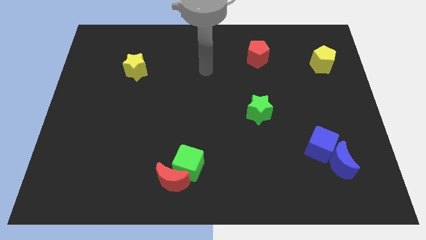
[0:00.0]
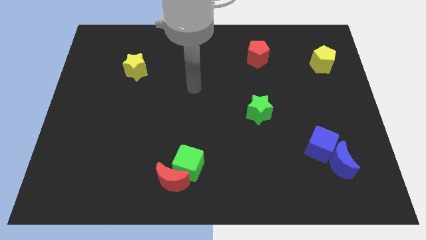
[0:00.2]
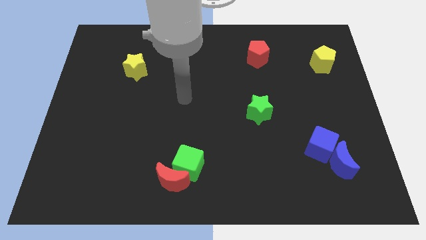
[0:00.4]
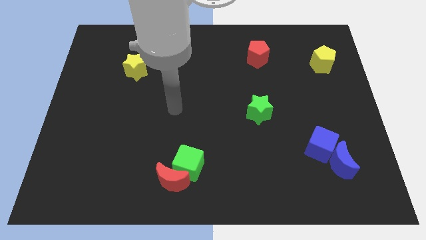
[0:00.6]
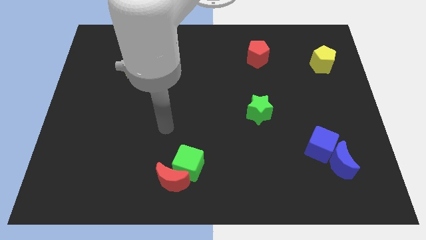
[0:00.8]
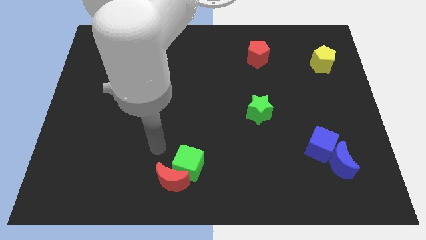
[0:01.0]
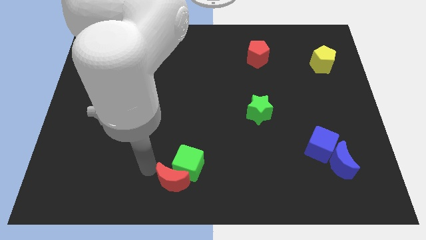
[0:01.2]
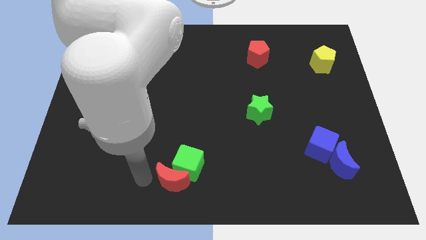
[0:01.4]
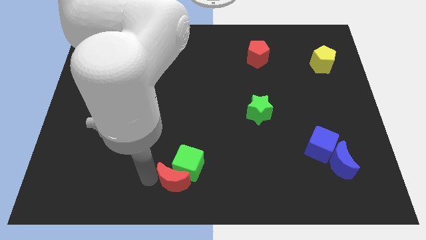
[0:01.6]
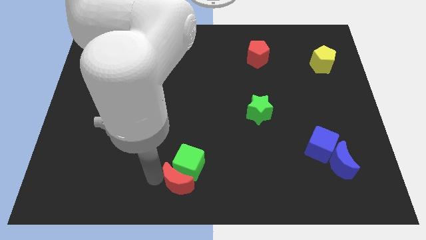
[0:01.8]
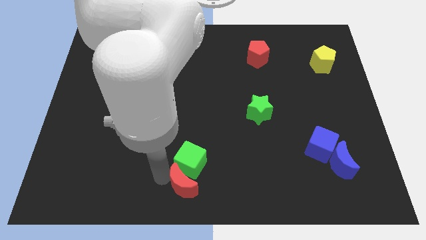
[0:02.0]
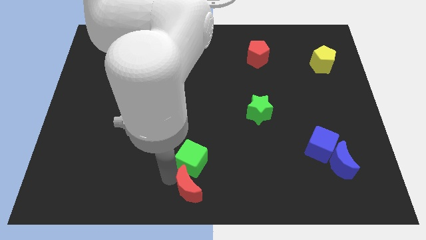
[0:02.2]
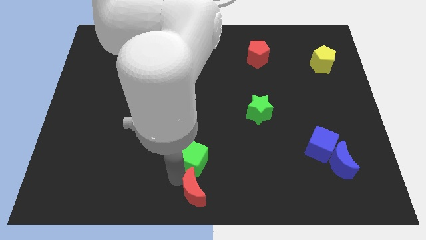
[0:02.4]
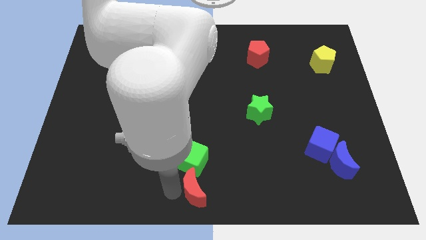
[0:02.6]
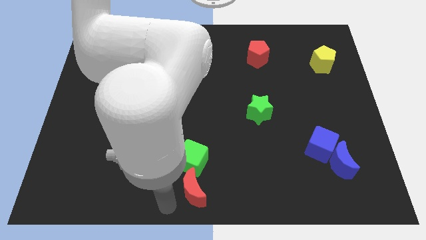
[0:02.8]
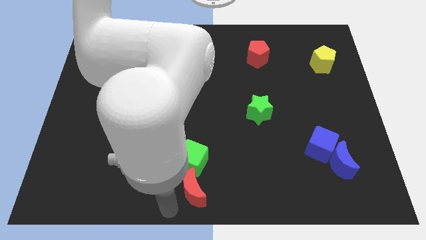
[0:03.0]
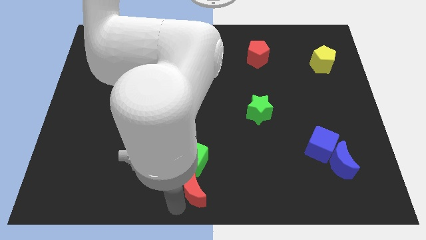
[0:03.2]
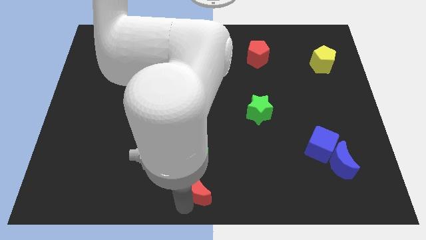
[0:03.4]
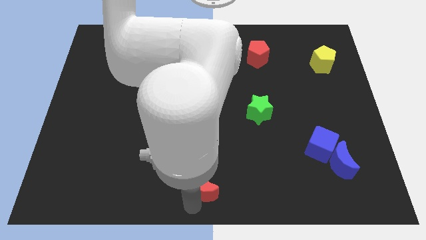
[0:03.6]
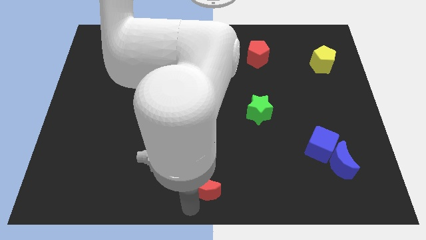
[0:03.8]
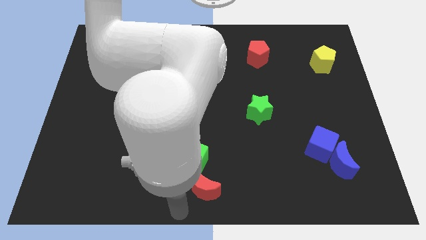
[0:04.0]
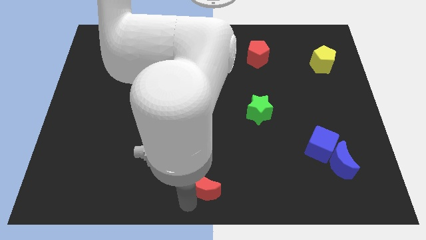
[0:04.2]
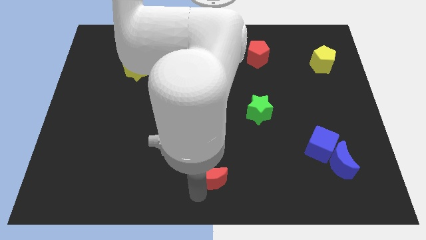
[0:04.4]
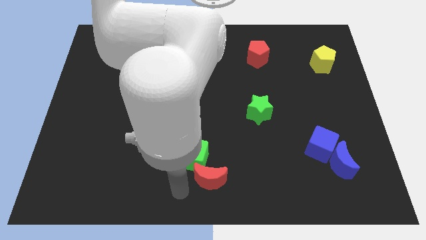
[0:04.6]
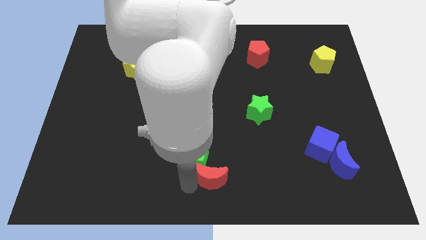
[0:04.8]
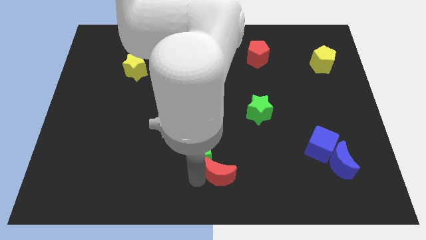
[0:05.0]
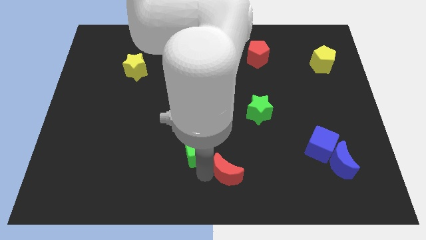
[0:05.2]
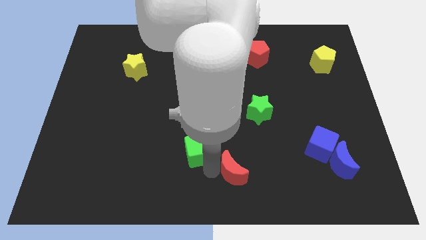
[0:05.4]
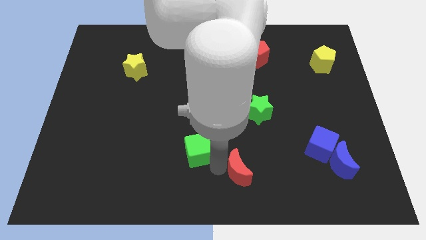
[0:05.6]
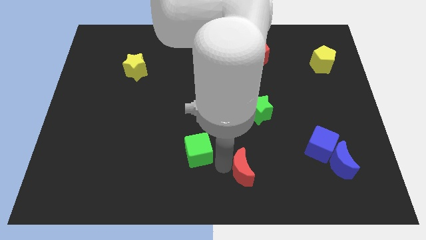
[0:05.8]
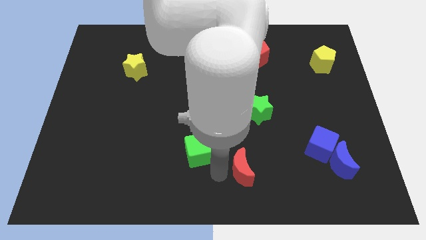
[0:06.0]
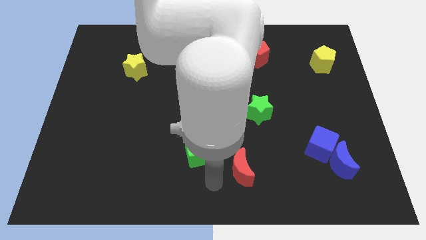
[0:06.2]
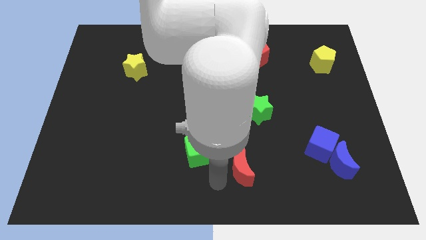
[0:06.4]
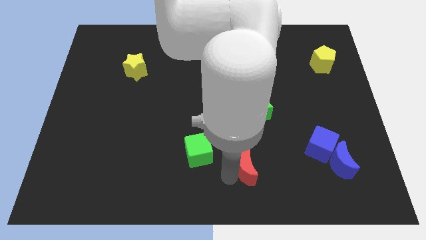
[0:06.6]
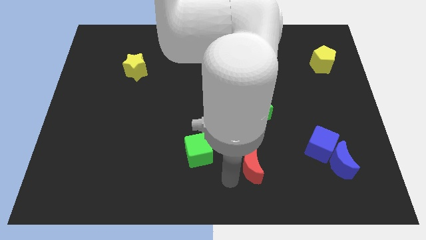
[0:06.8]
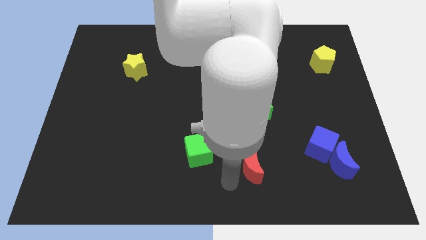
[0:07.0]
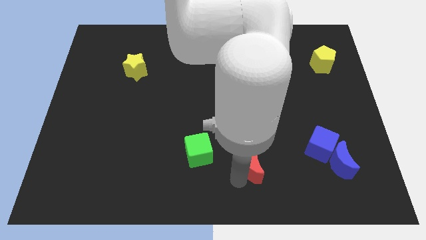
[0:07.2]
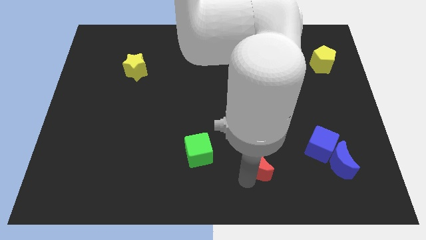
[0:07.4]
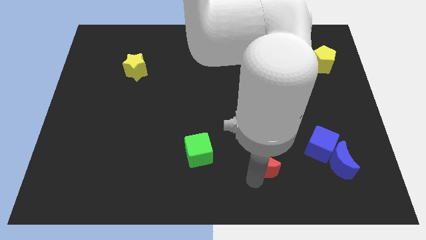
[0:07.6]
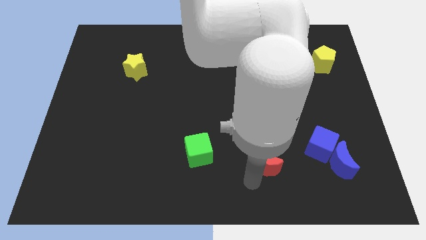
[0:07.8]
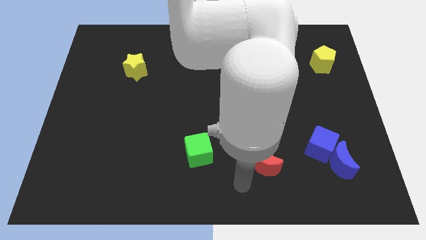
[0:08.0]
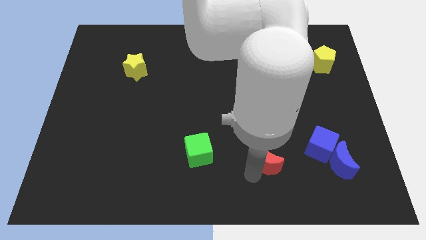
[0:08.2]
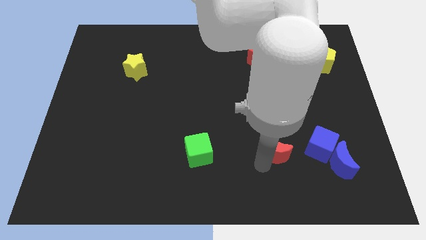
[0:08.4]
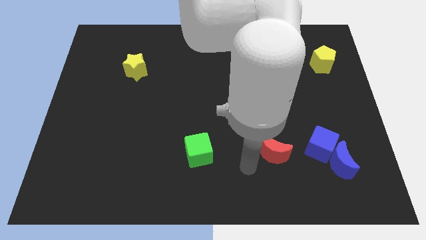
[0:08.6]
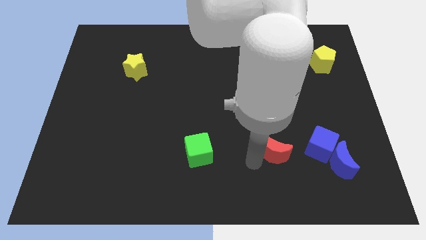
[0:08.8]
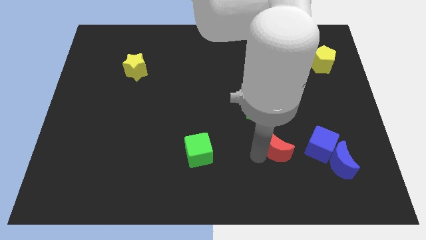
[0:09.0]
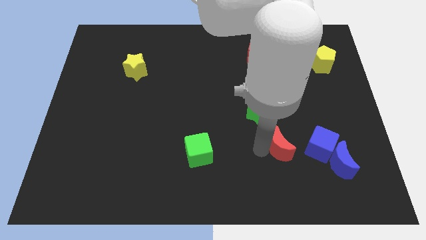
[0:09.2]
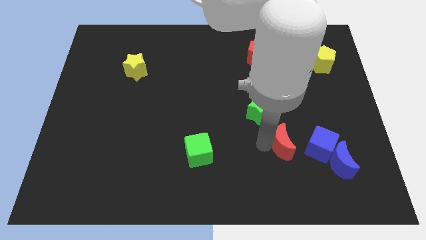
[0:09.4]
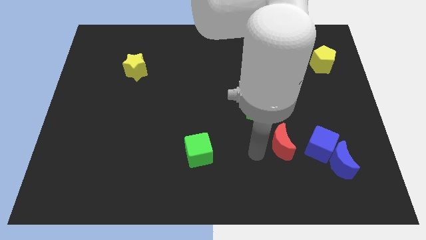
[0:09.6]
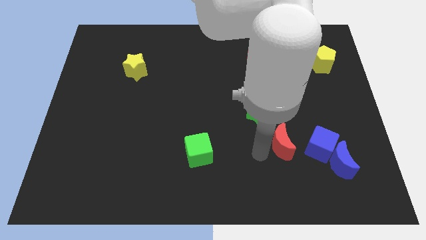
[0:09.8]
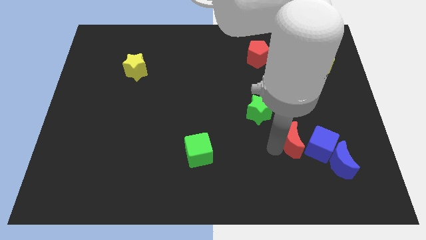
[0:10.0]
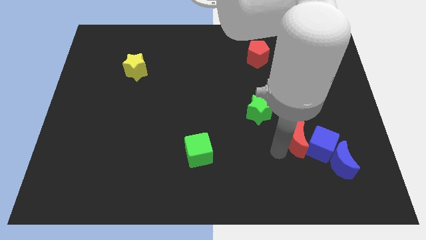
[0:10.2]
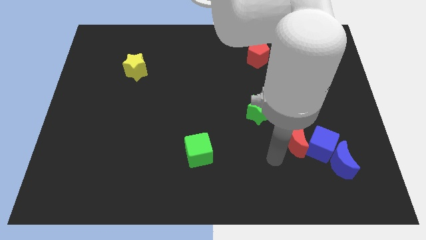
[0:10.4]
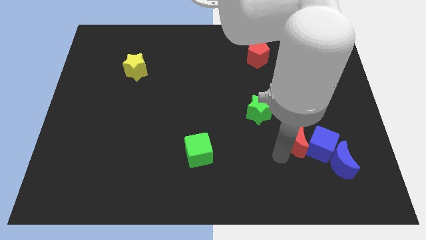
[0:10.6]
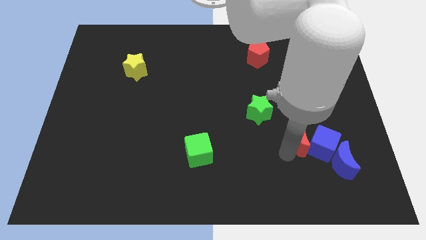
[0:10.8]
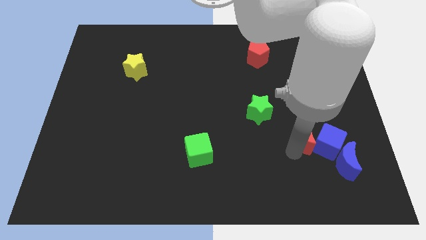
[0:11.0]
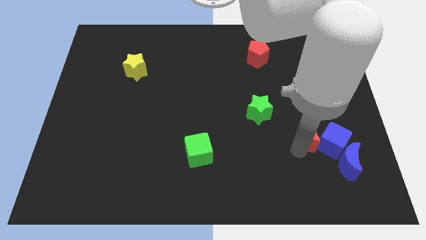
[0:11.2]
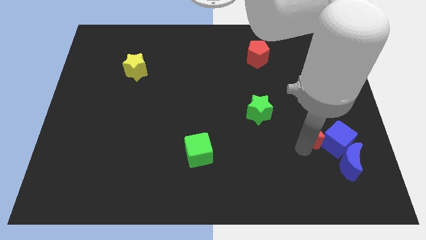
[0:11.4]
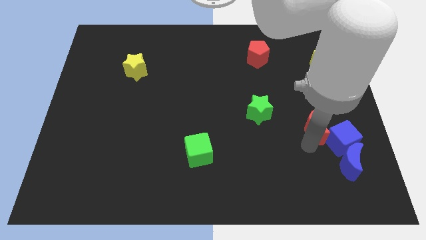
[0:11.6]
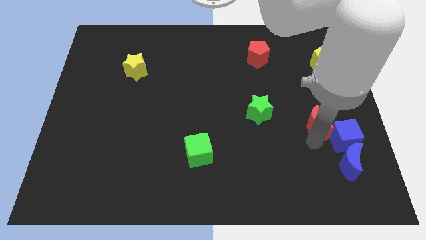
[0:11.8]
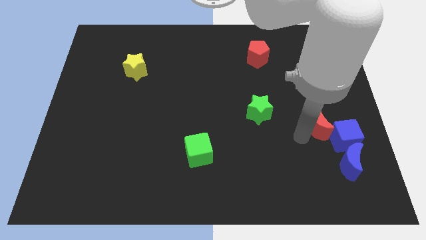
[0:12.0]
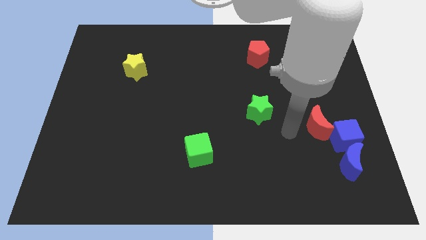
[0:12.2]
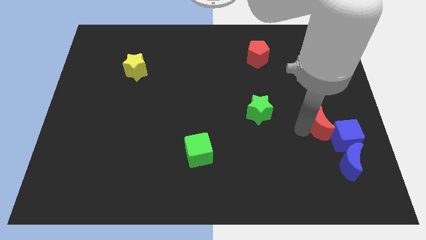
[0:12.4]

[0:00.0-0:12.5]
push the red moon above the blue moon

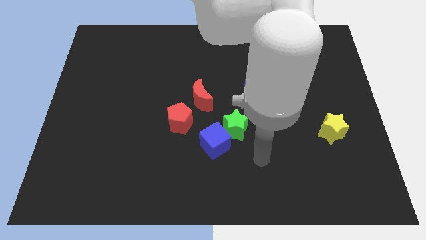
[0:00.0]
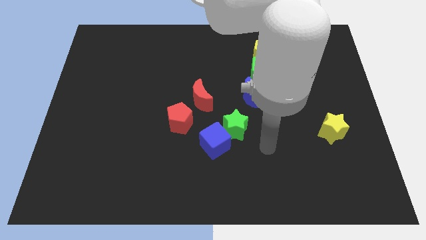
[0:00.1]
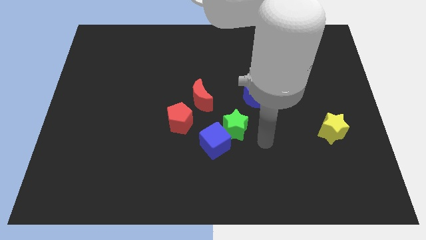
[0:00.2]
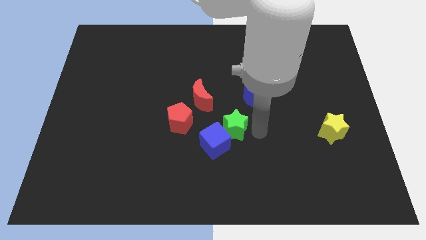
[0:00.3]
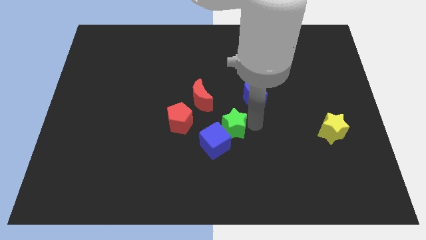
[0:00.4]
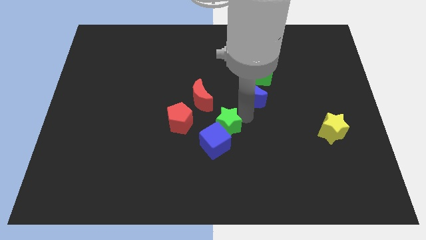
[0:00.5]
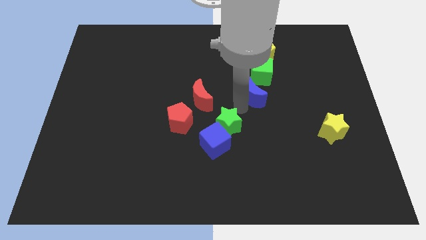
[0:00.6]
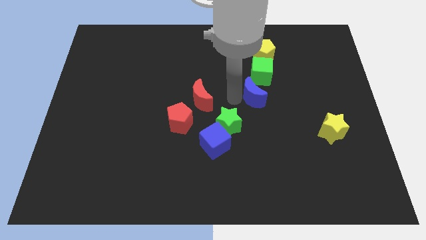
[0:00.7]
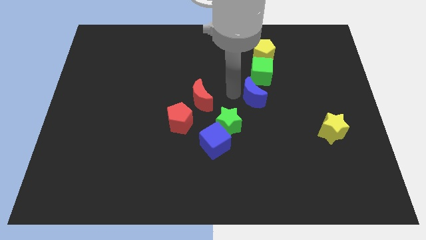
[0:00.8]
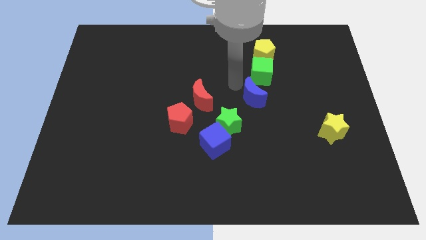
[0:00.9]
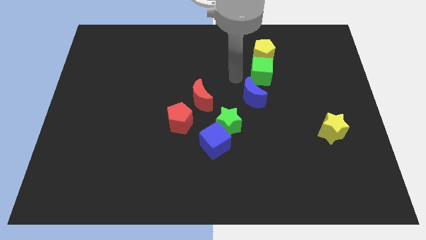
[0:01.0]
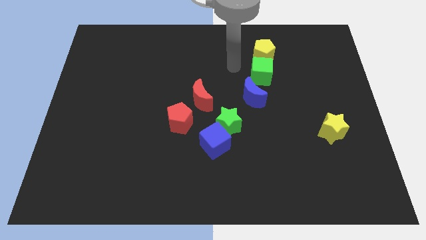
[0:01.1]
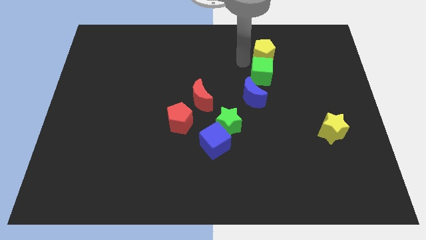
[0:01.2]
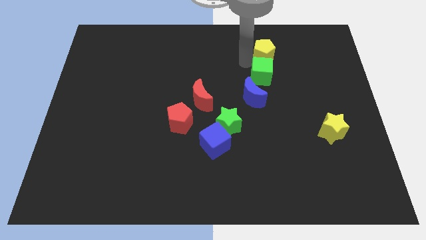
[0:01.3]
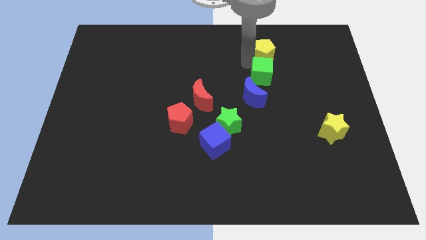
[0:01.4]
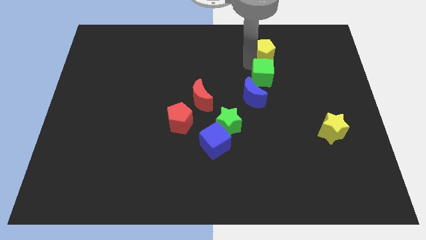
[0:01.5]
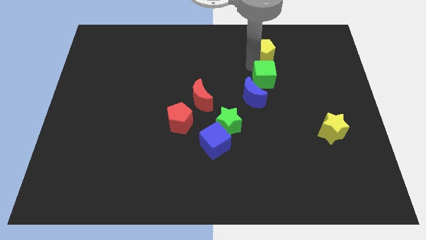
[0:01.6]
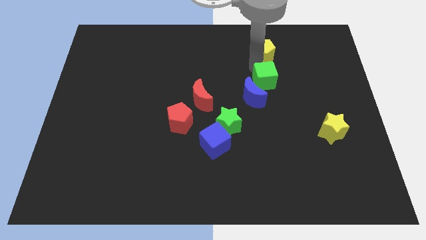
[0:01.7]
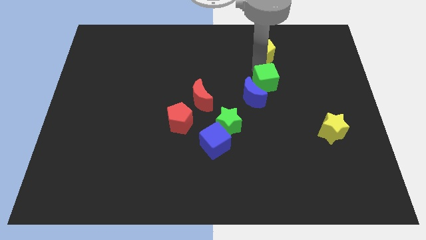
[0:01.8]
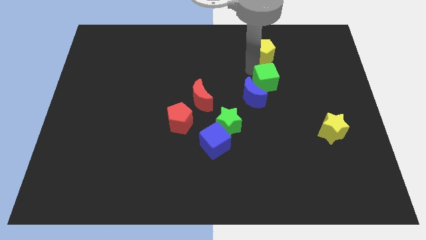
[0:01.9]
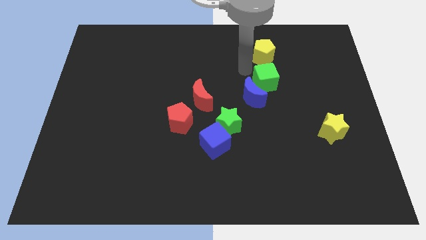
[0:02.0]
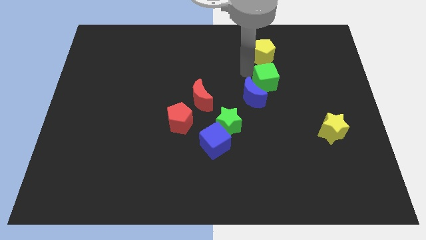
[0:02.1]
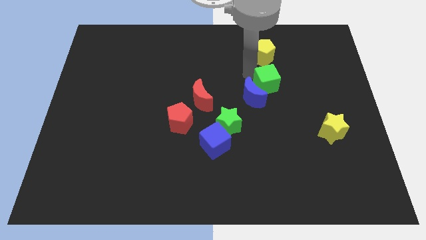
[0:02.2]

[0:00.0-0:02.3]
put the green cube to the right side of the blue moon
